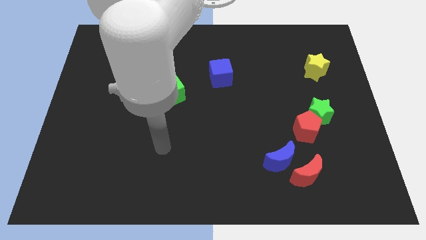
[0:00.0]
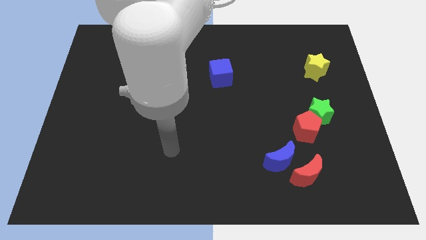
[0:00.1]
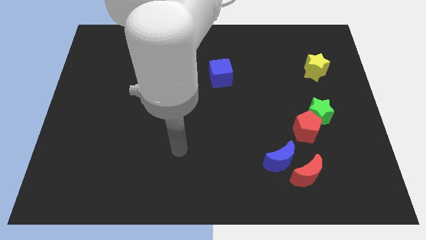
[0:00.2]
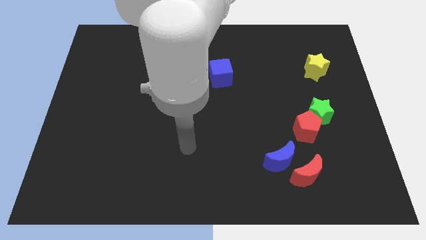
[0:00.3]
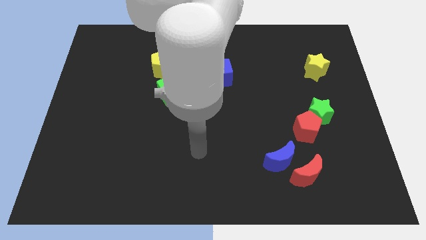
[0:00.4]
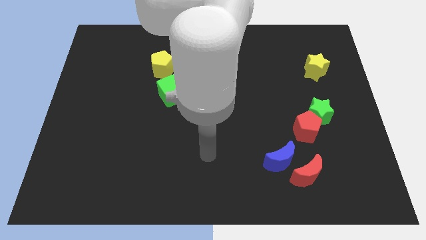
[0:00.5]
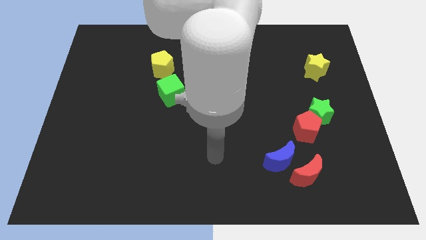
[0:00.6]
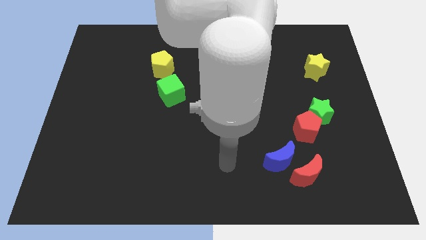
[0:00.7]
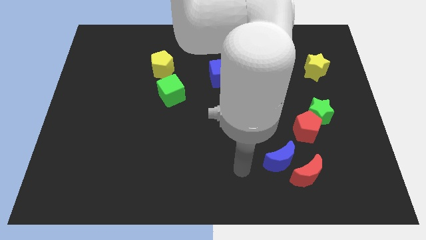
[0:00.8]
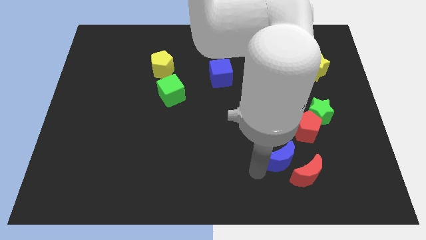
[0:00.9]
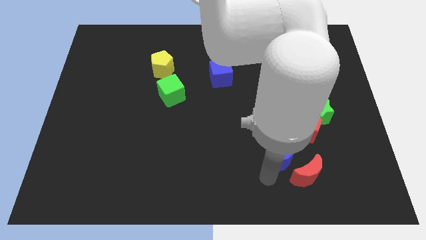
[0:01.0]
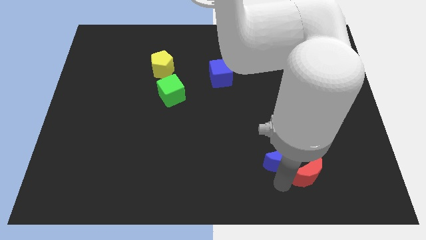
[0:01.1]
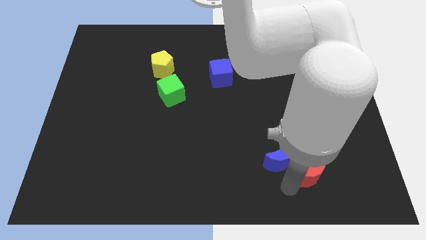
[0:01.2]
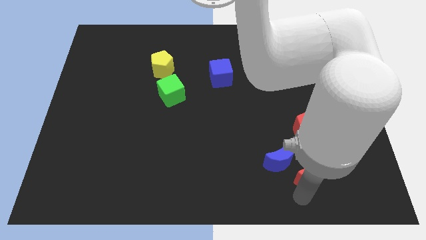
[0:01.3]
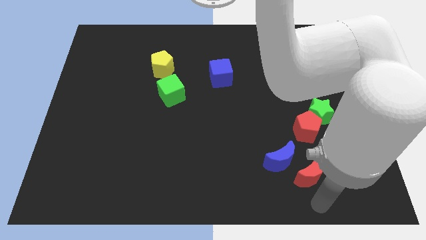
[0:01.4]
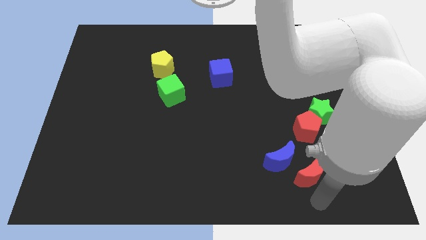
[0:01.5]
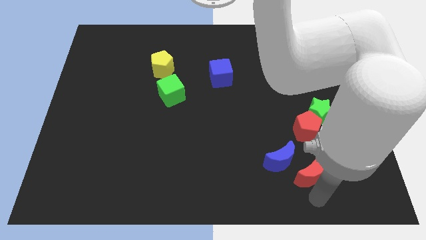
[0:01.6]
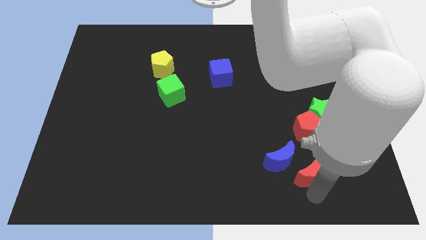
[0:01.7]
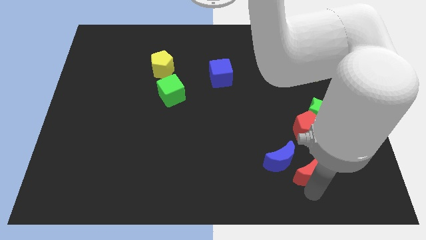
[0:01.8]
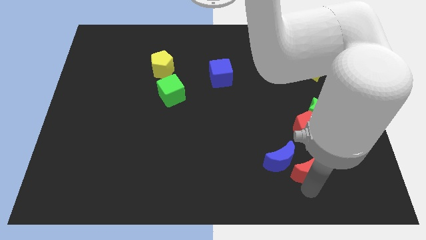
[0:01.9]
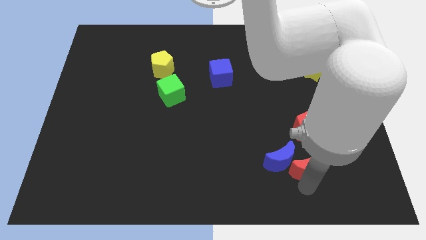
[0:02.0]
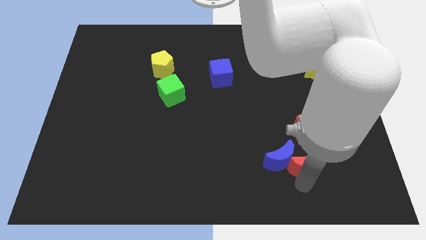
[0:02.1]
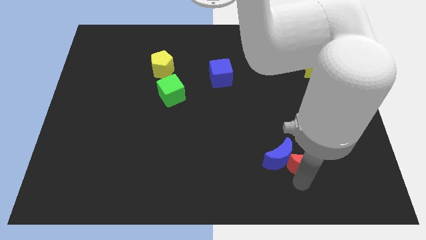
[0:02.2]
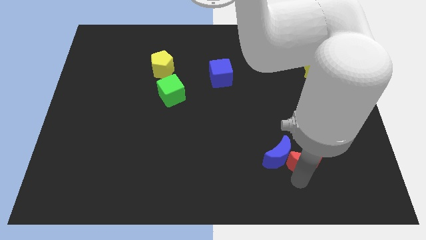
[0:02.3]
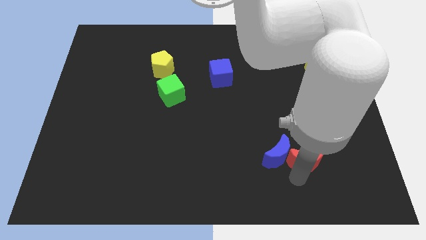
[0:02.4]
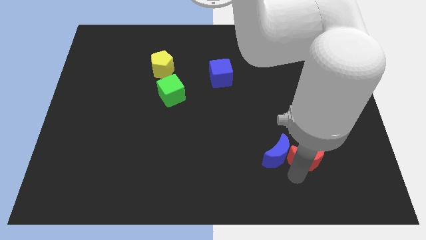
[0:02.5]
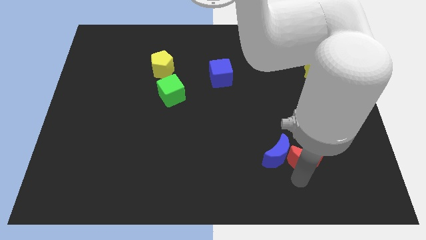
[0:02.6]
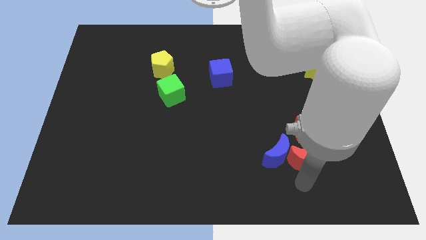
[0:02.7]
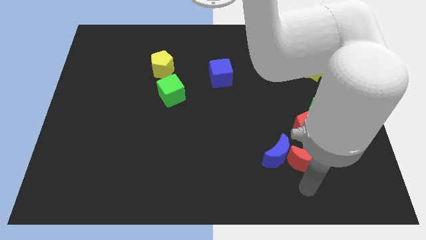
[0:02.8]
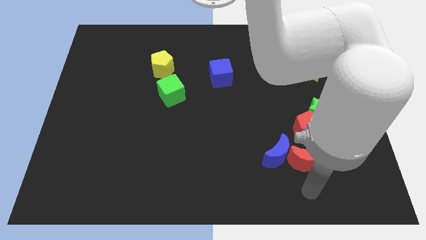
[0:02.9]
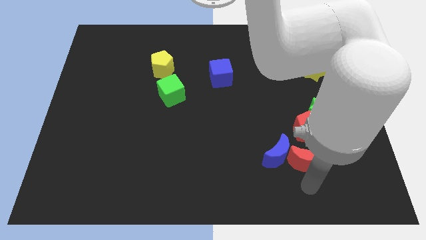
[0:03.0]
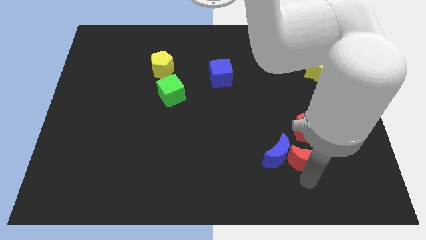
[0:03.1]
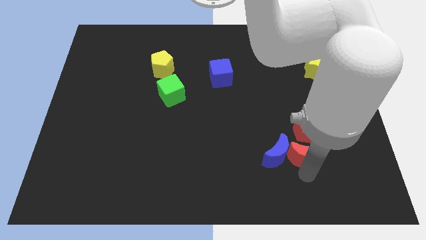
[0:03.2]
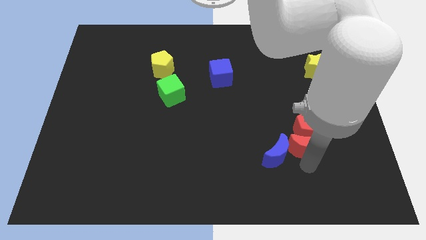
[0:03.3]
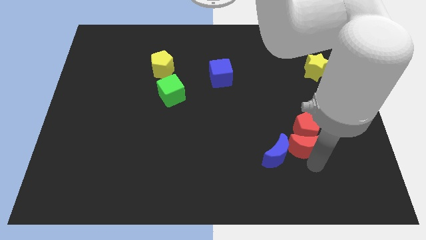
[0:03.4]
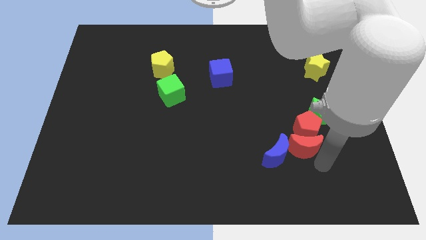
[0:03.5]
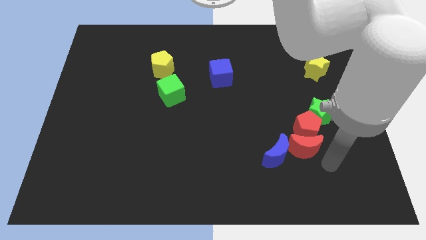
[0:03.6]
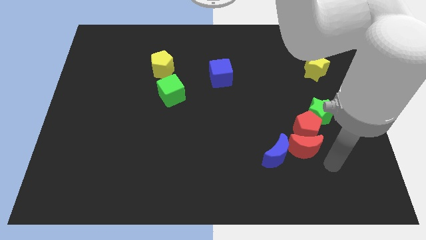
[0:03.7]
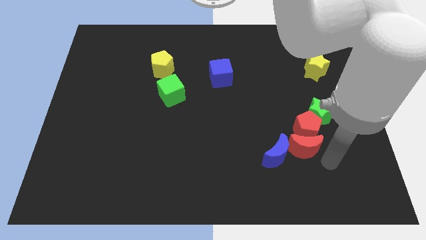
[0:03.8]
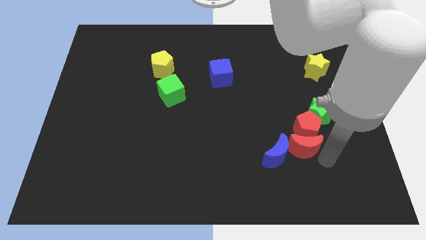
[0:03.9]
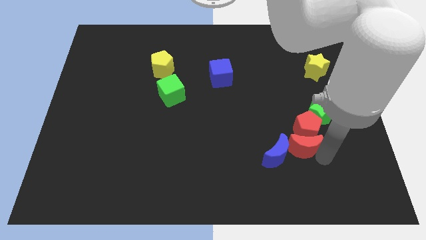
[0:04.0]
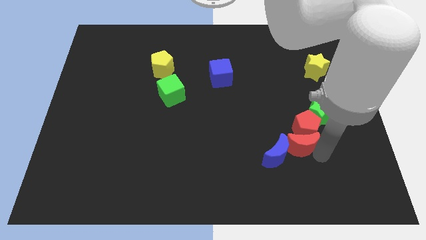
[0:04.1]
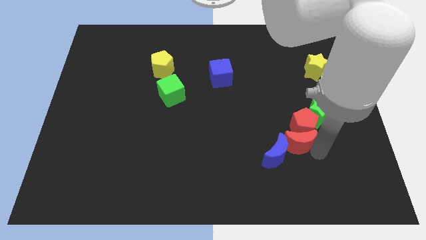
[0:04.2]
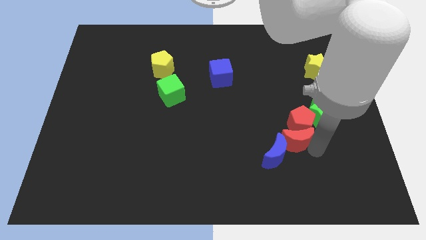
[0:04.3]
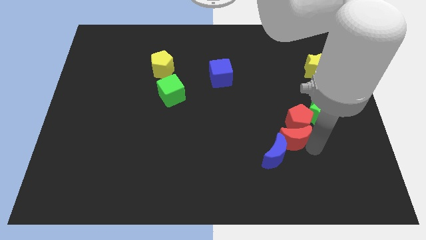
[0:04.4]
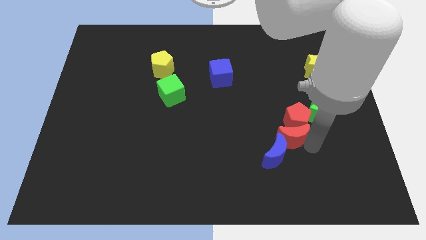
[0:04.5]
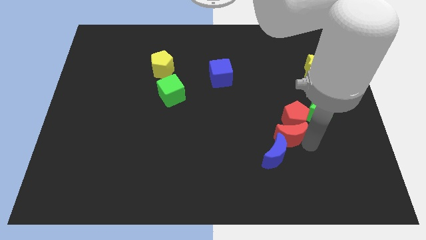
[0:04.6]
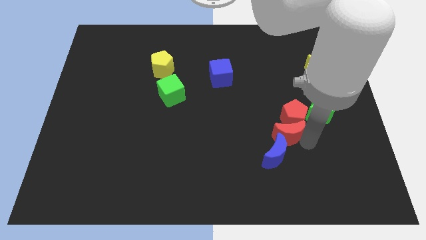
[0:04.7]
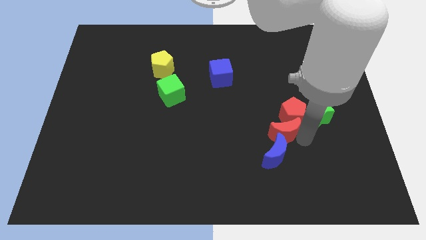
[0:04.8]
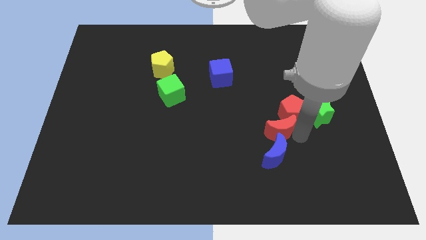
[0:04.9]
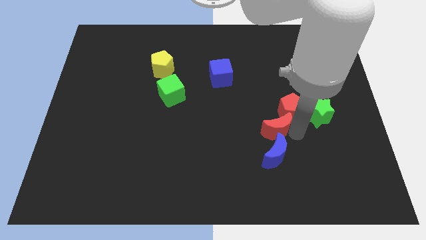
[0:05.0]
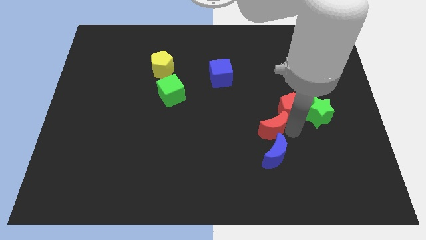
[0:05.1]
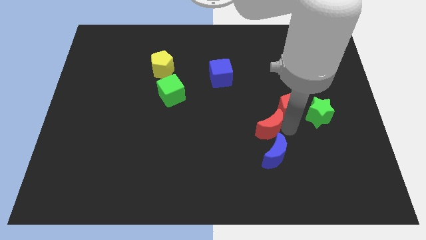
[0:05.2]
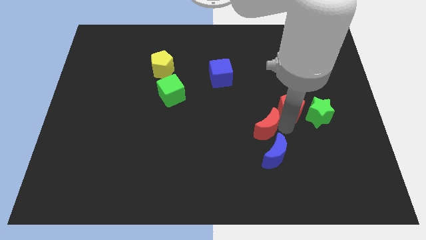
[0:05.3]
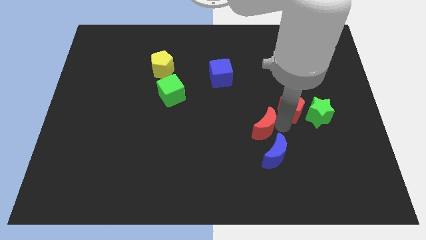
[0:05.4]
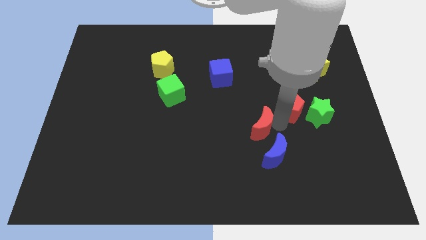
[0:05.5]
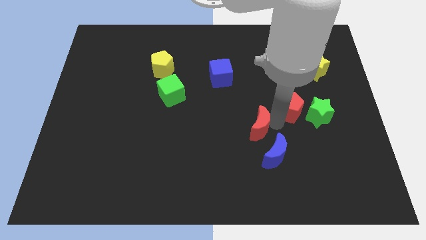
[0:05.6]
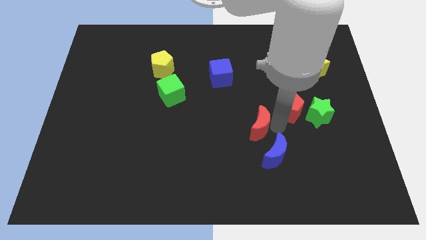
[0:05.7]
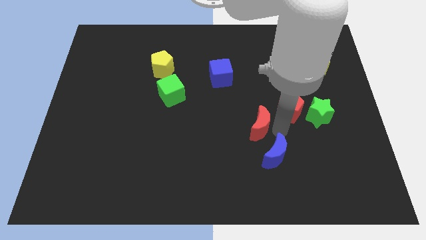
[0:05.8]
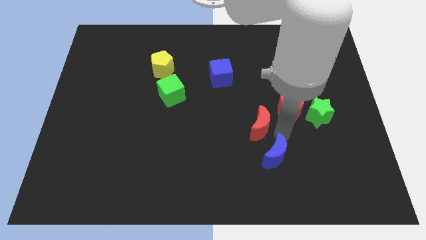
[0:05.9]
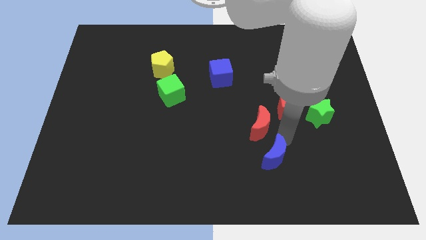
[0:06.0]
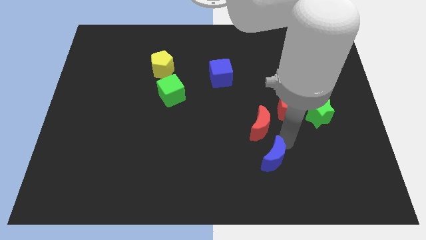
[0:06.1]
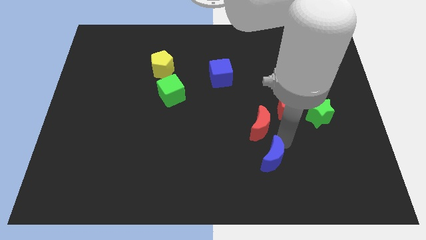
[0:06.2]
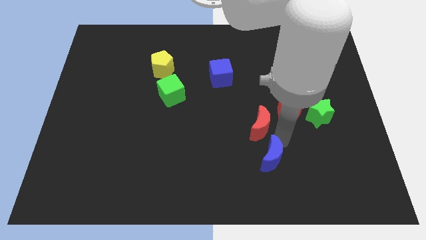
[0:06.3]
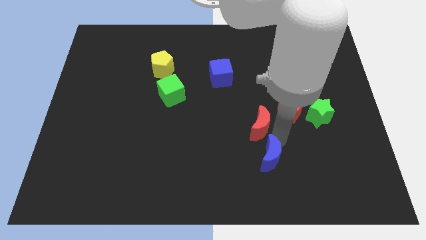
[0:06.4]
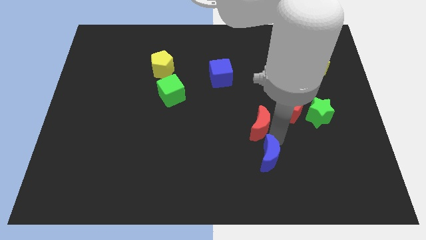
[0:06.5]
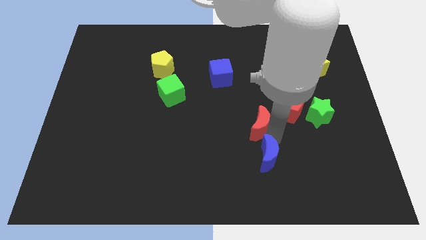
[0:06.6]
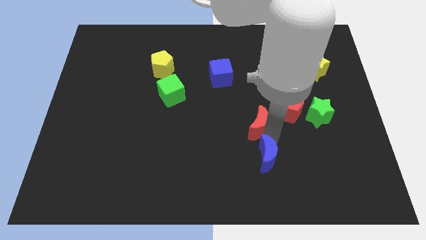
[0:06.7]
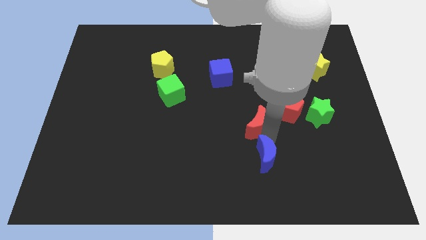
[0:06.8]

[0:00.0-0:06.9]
slide the red moon to the center of the board
